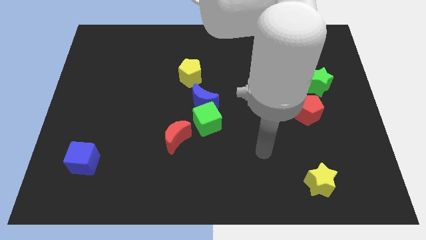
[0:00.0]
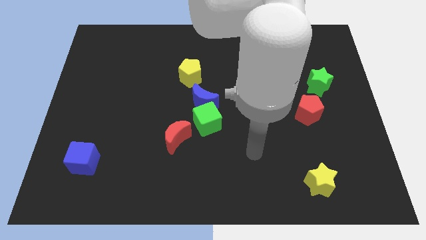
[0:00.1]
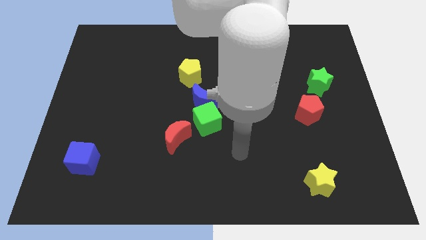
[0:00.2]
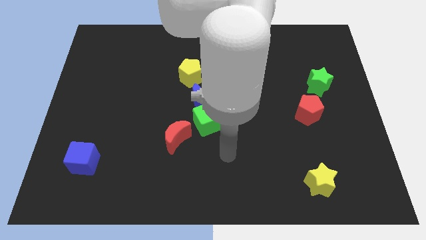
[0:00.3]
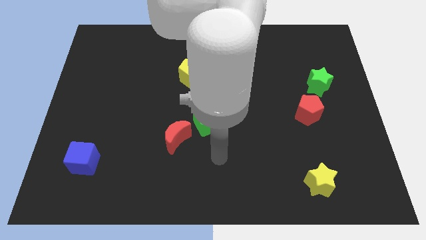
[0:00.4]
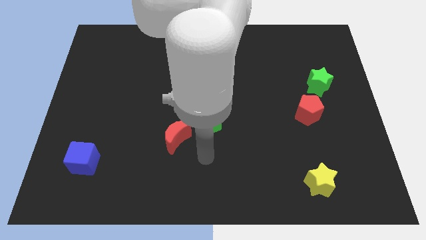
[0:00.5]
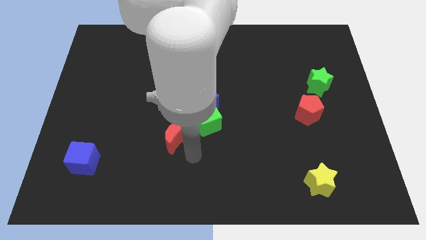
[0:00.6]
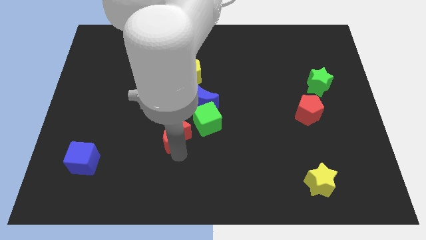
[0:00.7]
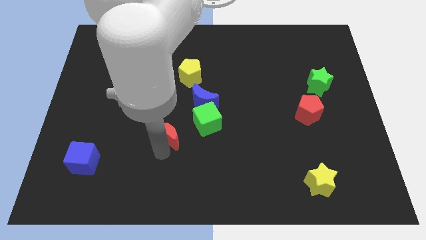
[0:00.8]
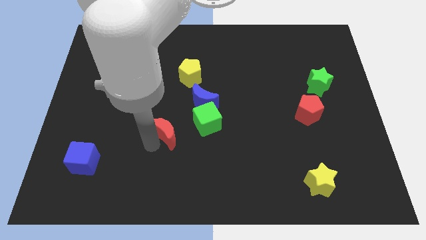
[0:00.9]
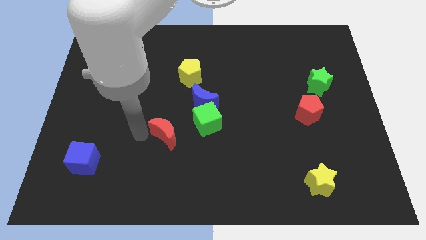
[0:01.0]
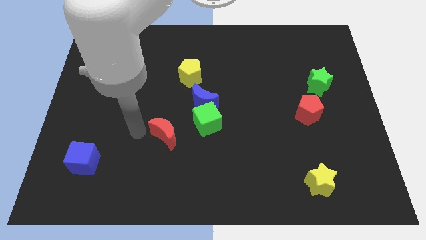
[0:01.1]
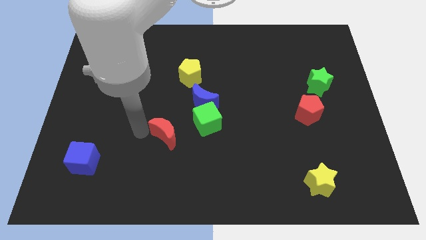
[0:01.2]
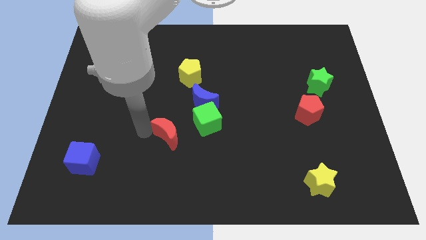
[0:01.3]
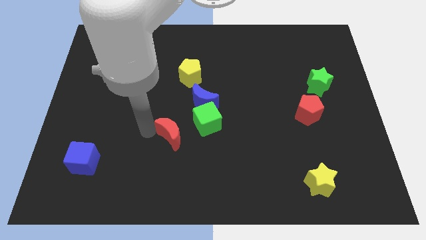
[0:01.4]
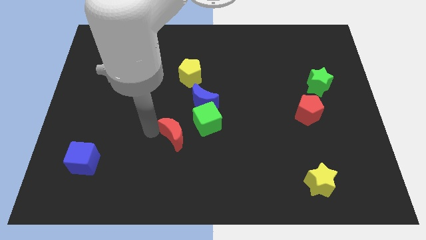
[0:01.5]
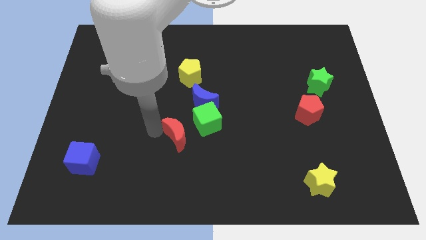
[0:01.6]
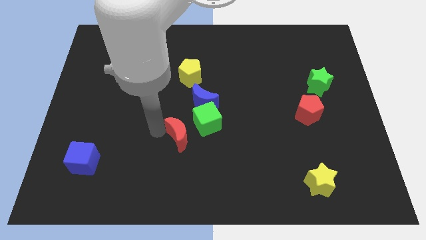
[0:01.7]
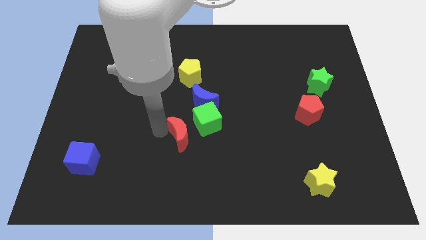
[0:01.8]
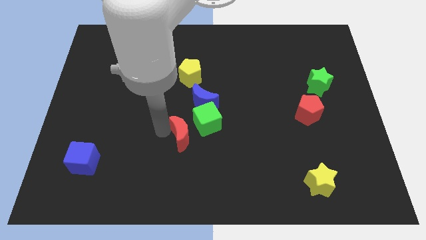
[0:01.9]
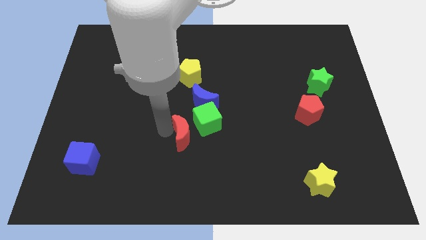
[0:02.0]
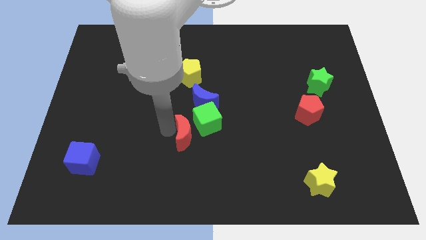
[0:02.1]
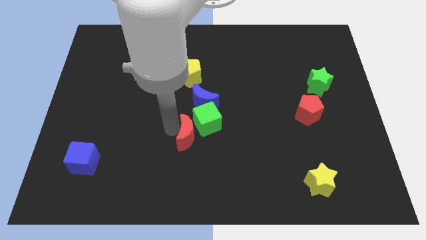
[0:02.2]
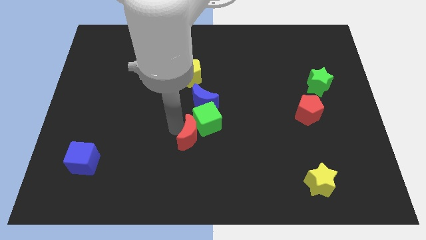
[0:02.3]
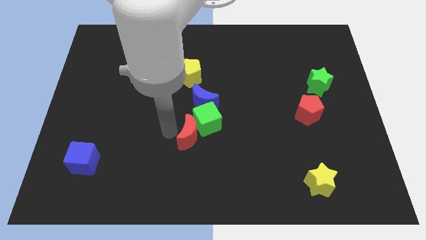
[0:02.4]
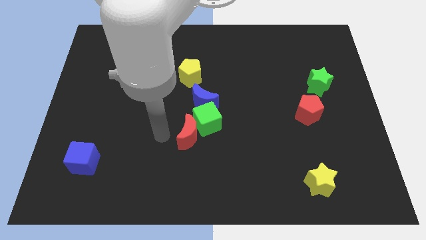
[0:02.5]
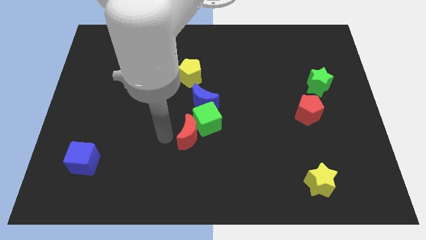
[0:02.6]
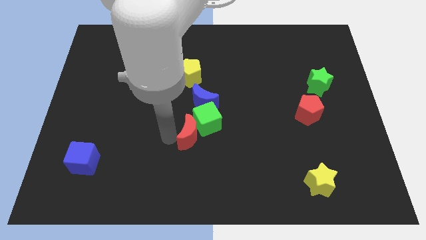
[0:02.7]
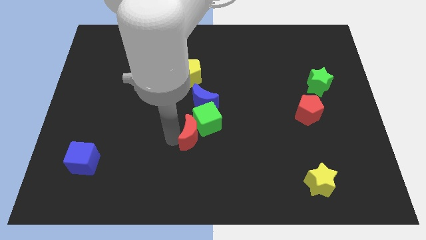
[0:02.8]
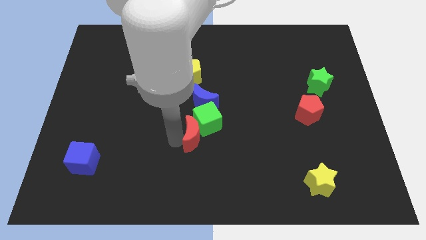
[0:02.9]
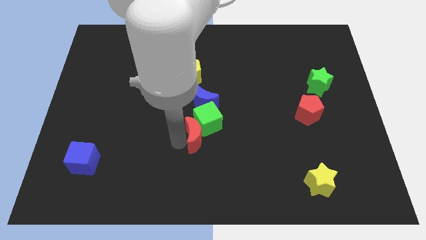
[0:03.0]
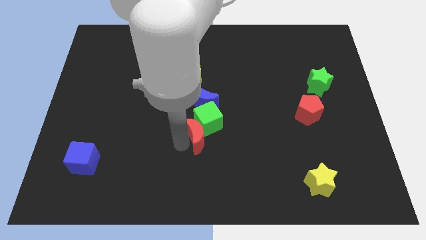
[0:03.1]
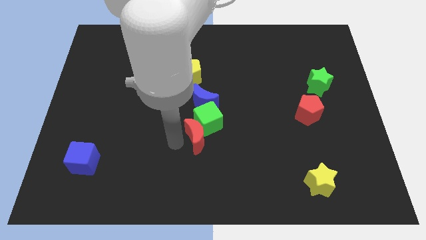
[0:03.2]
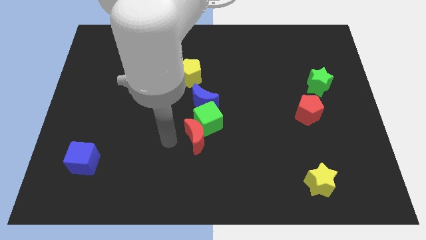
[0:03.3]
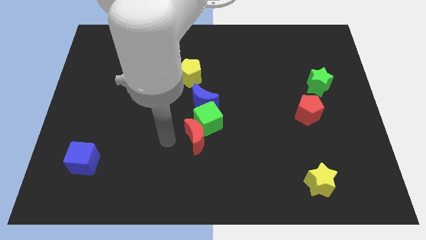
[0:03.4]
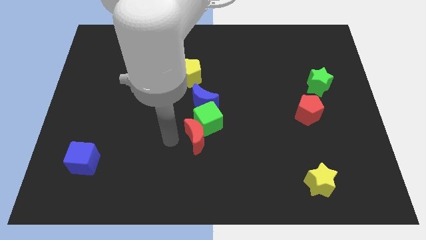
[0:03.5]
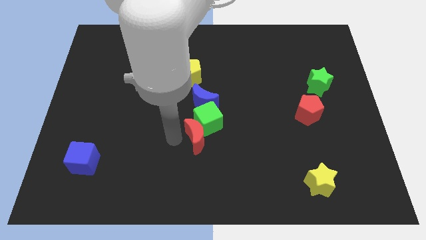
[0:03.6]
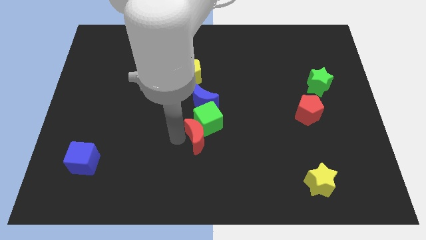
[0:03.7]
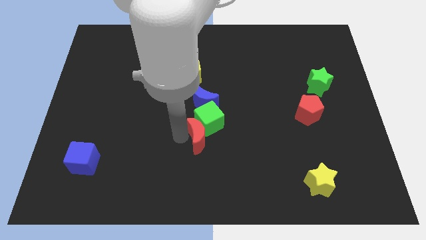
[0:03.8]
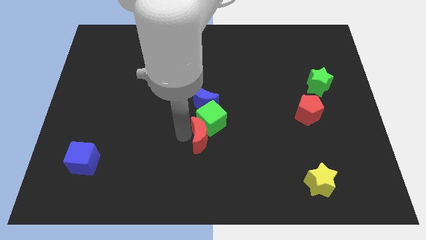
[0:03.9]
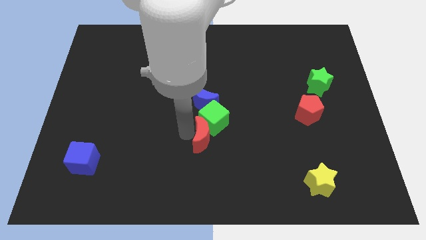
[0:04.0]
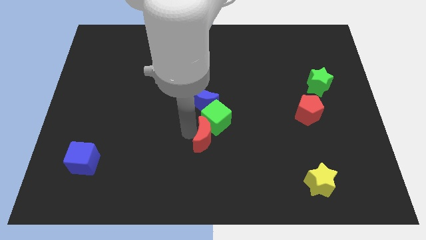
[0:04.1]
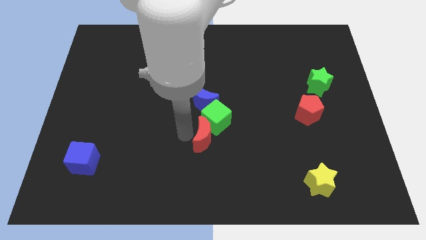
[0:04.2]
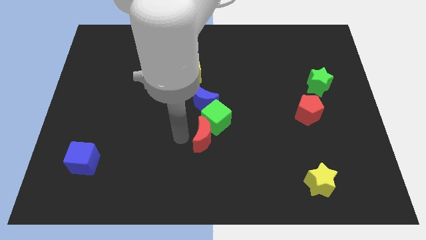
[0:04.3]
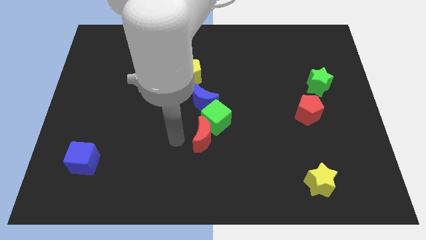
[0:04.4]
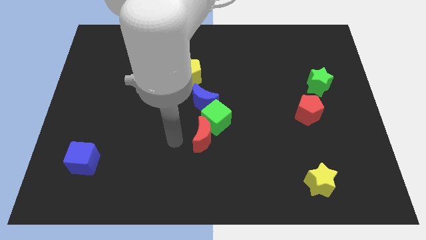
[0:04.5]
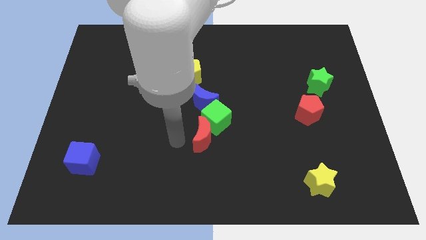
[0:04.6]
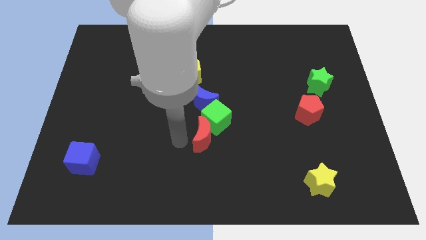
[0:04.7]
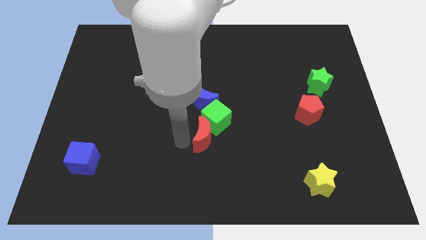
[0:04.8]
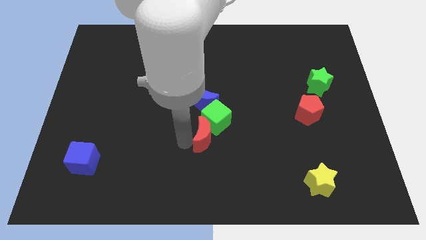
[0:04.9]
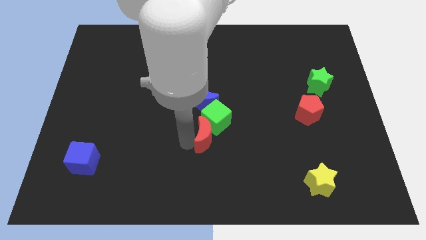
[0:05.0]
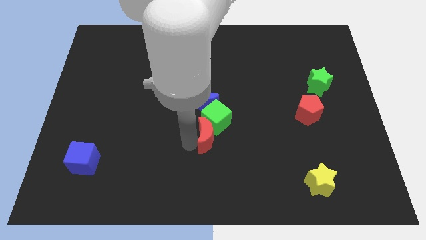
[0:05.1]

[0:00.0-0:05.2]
slightly slide the red moon right

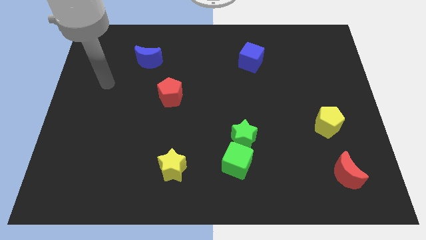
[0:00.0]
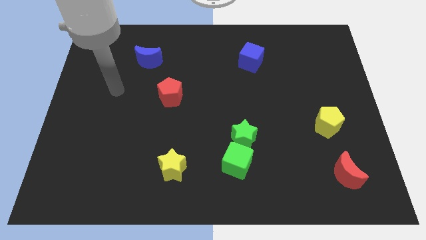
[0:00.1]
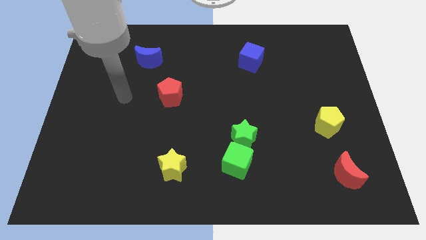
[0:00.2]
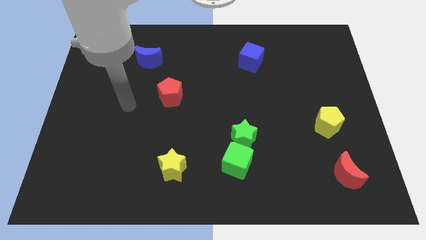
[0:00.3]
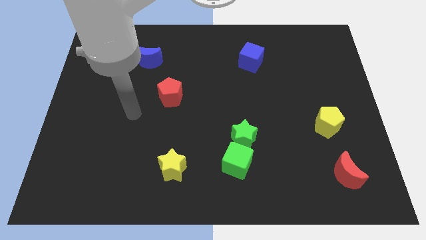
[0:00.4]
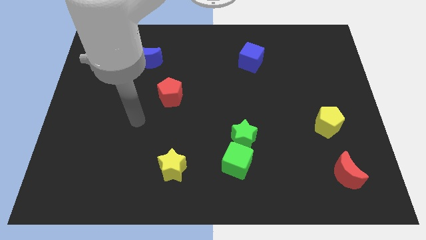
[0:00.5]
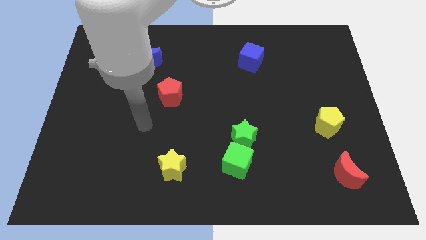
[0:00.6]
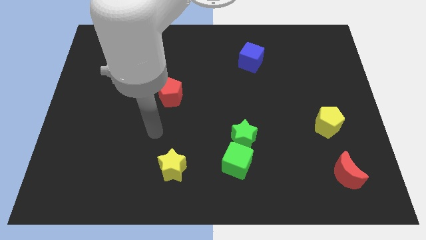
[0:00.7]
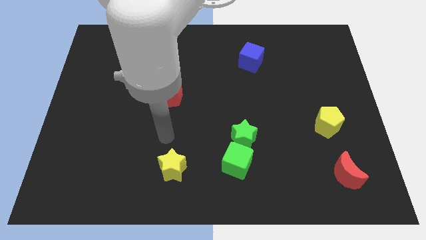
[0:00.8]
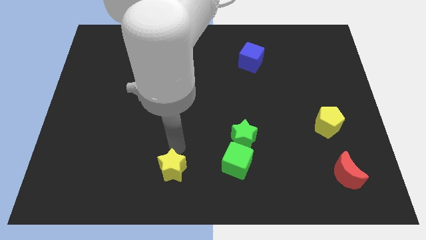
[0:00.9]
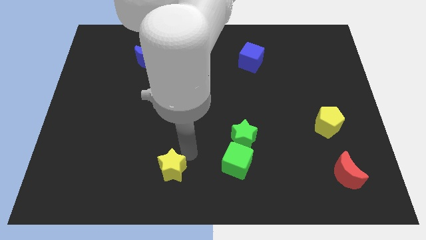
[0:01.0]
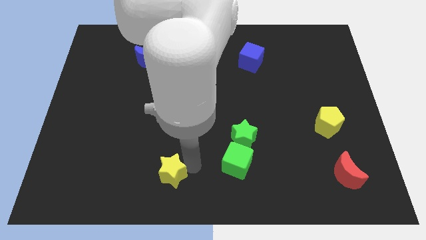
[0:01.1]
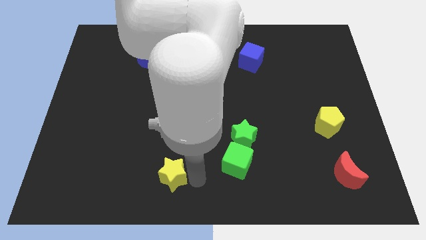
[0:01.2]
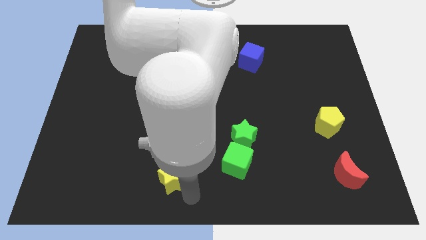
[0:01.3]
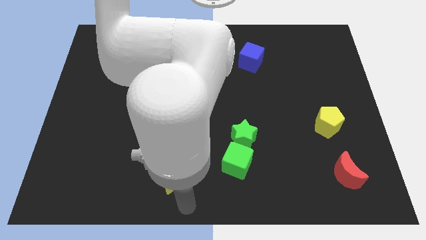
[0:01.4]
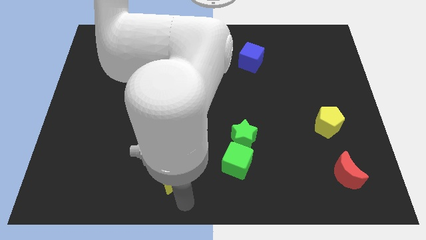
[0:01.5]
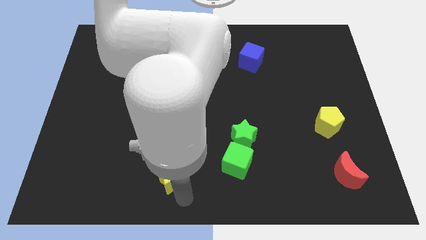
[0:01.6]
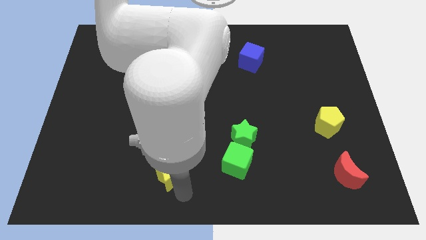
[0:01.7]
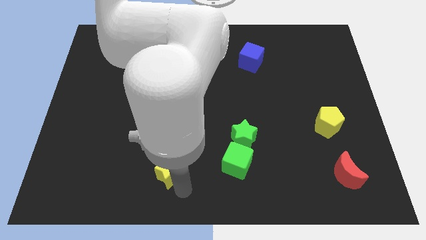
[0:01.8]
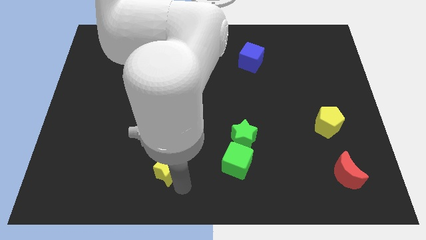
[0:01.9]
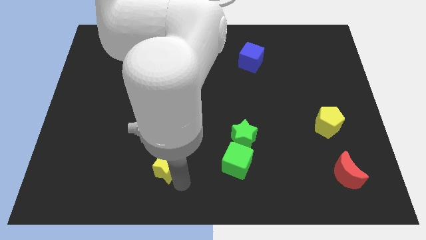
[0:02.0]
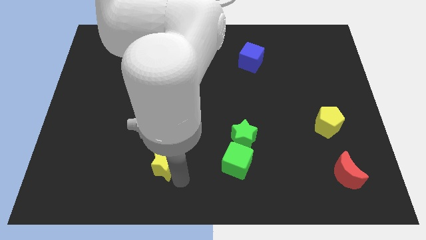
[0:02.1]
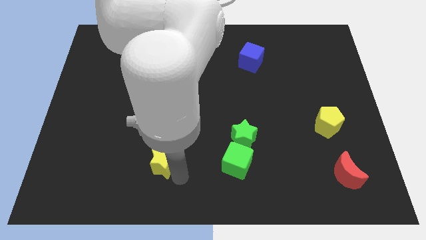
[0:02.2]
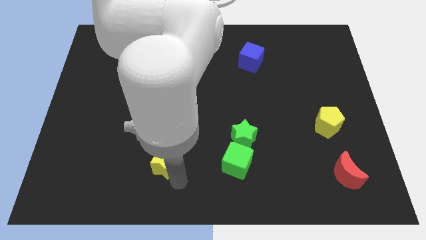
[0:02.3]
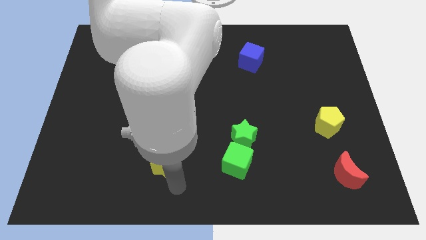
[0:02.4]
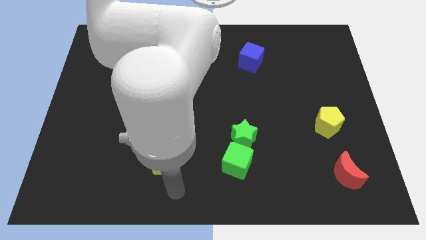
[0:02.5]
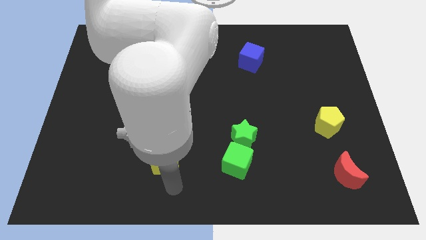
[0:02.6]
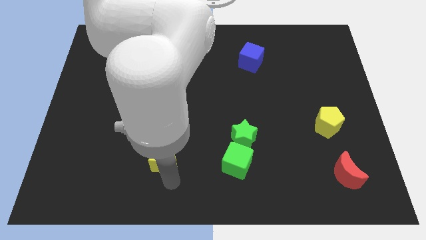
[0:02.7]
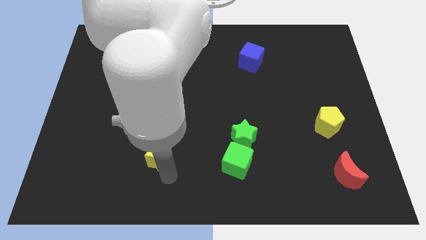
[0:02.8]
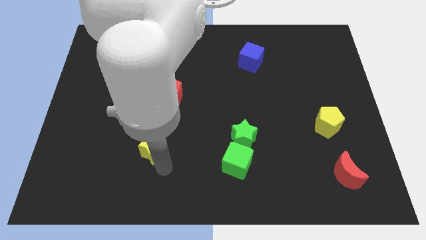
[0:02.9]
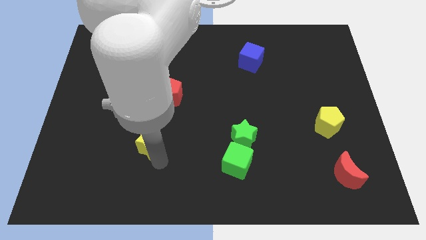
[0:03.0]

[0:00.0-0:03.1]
move the yellow star upwards and to the left a bit
